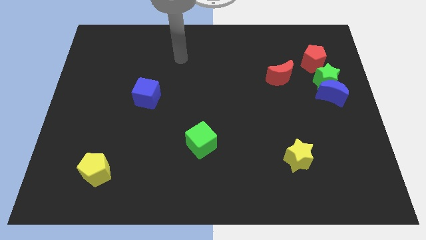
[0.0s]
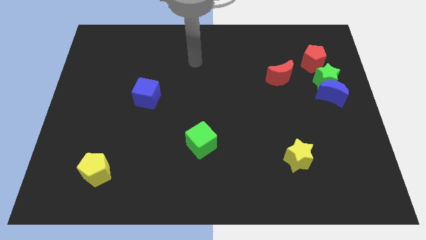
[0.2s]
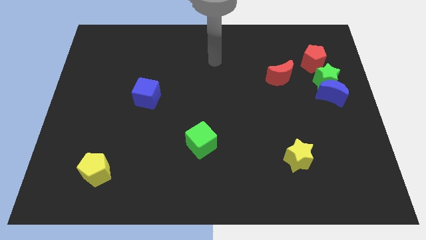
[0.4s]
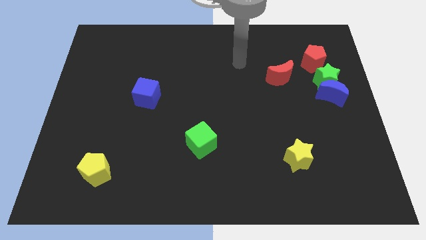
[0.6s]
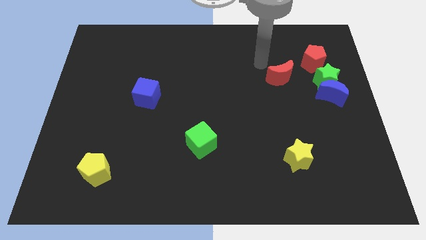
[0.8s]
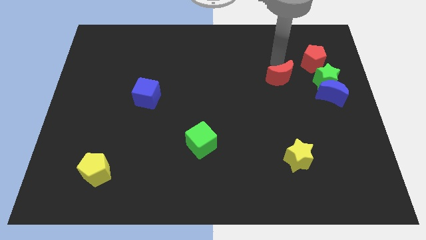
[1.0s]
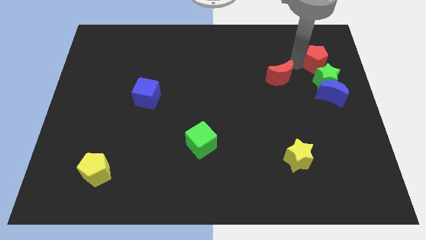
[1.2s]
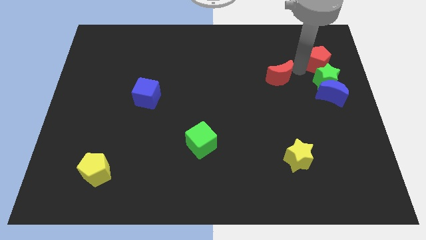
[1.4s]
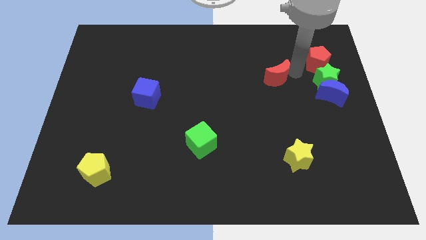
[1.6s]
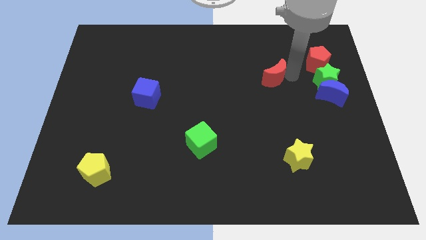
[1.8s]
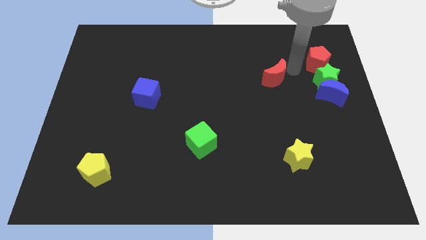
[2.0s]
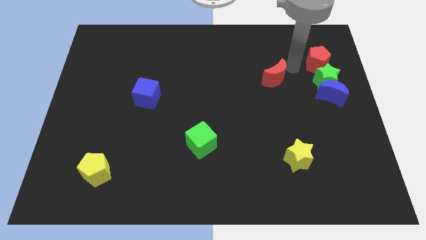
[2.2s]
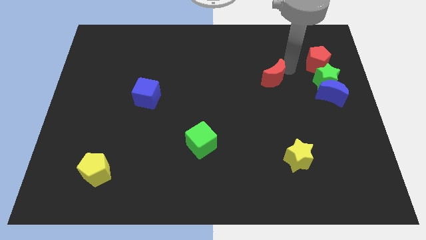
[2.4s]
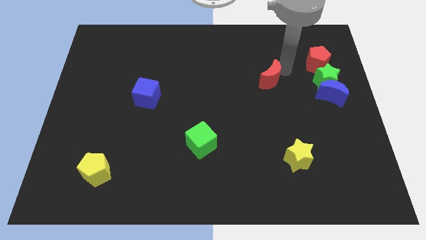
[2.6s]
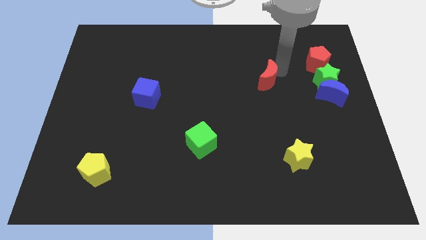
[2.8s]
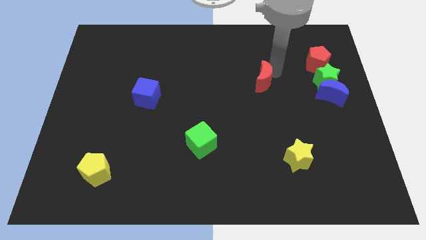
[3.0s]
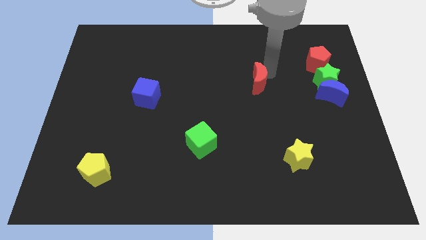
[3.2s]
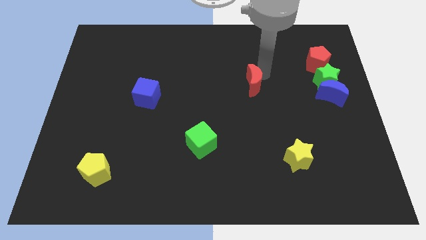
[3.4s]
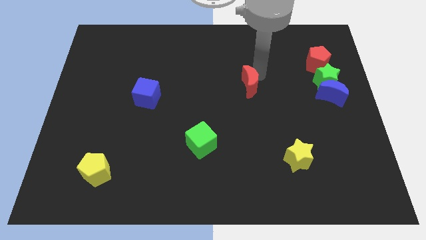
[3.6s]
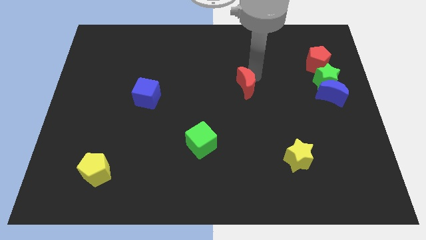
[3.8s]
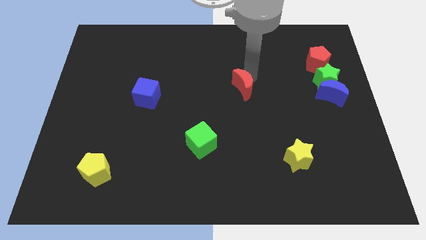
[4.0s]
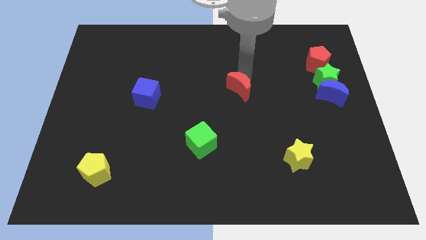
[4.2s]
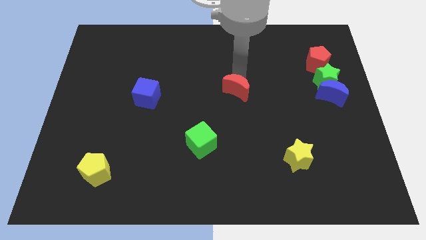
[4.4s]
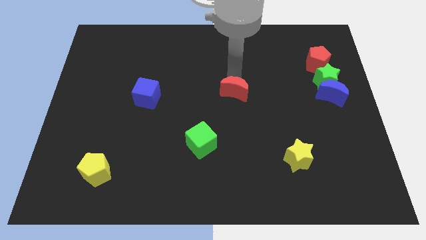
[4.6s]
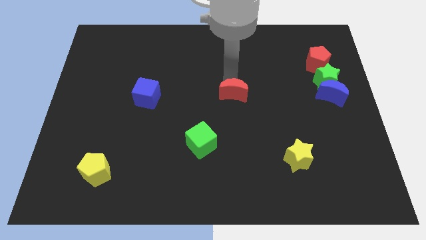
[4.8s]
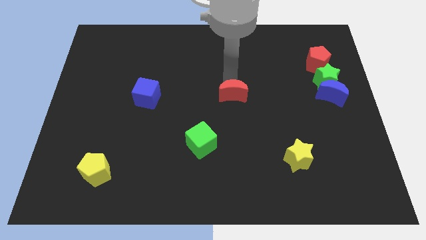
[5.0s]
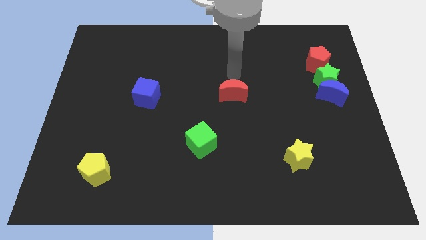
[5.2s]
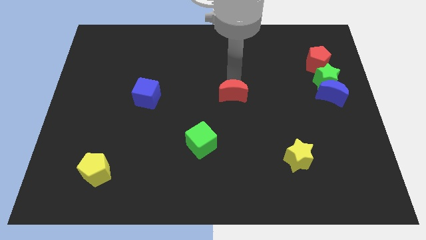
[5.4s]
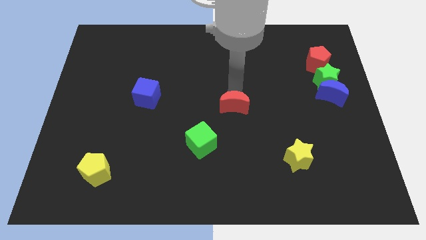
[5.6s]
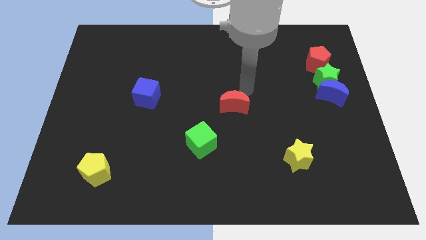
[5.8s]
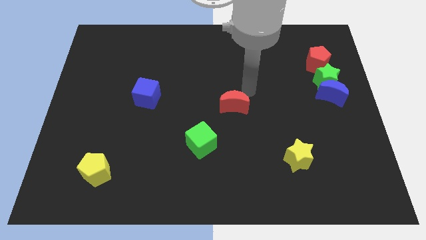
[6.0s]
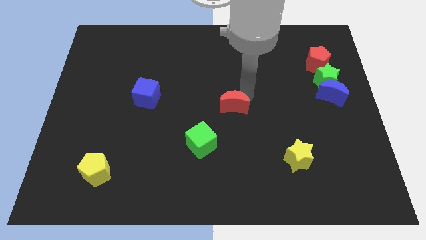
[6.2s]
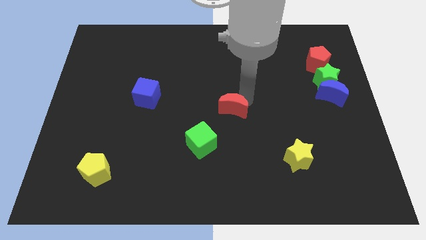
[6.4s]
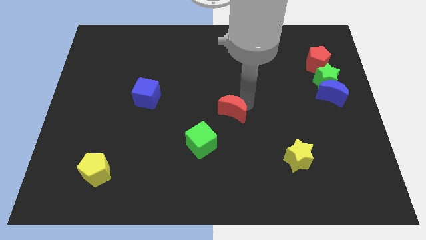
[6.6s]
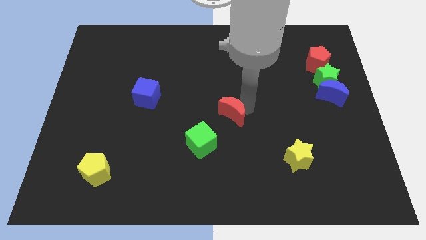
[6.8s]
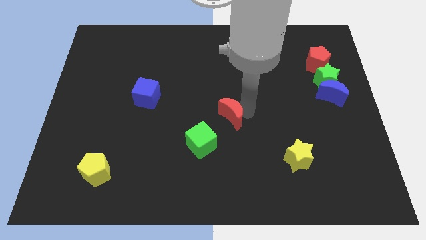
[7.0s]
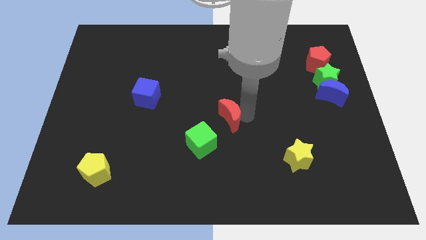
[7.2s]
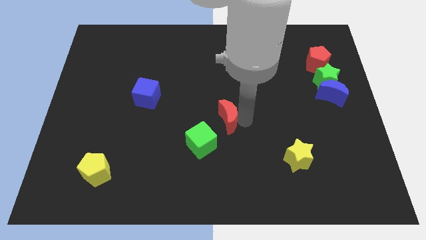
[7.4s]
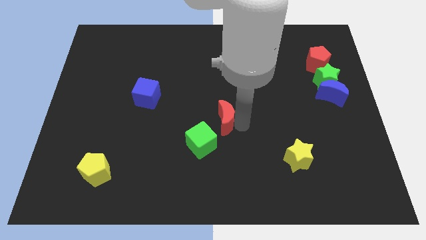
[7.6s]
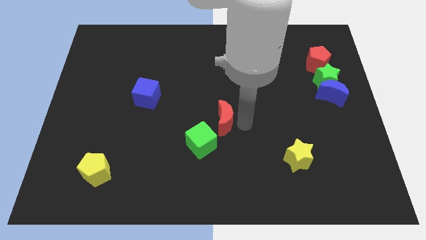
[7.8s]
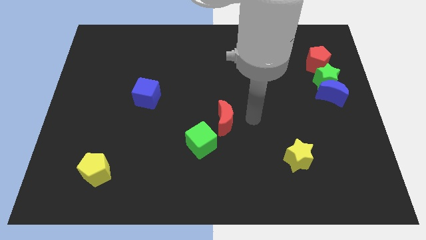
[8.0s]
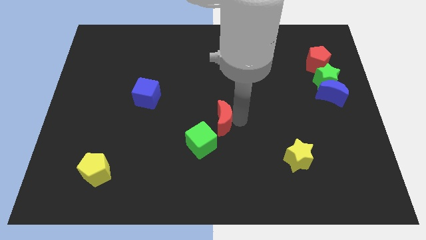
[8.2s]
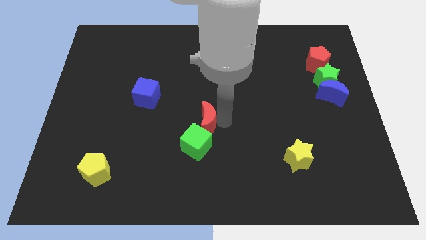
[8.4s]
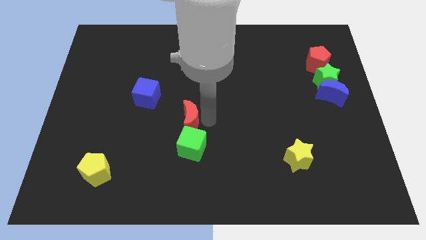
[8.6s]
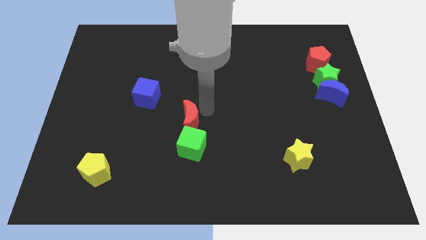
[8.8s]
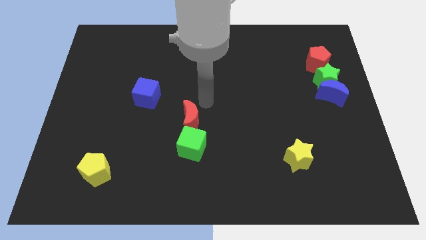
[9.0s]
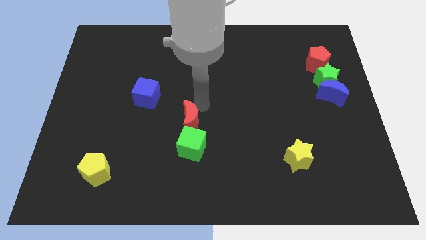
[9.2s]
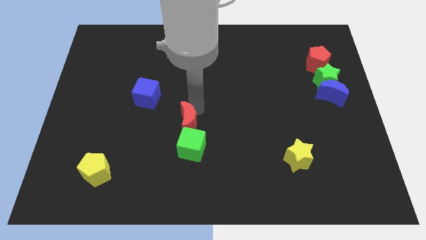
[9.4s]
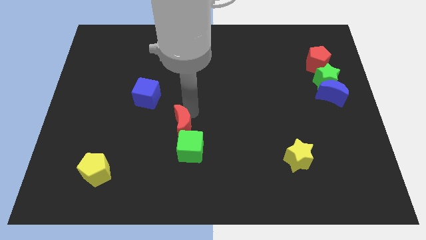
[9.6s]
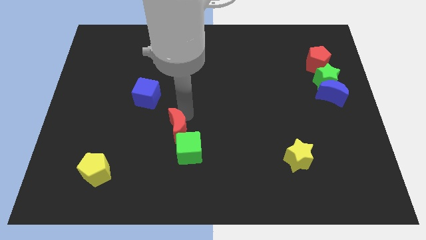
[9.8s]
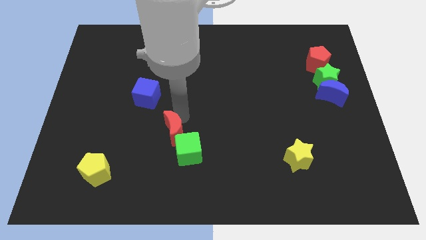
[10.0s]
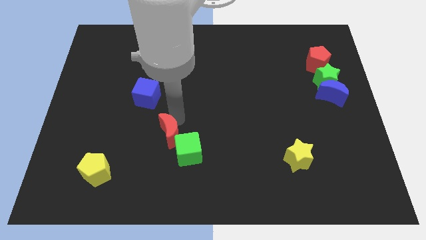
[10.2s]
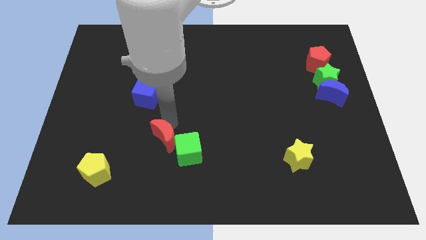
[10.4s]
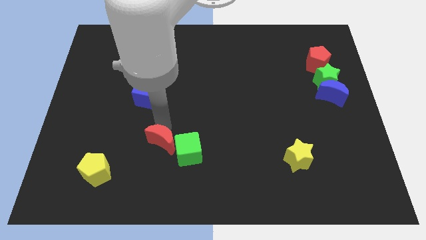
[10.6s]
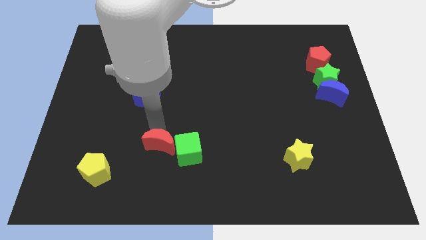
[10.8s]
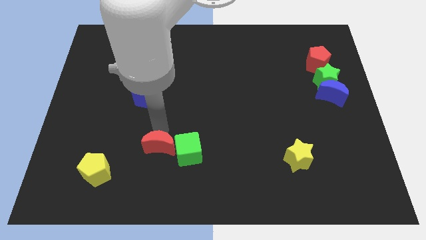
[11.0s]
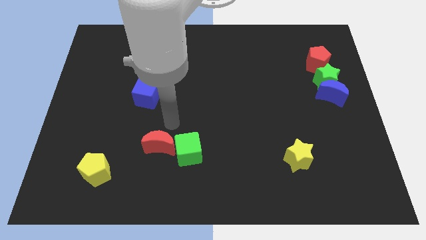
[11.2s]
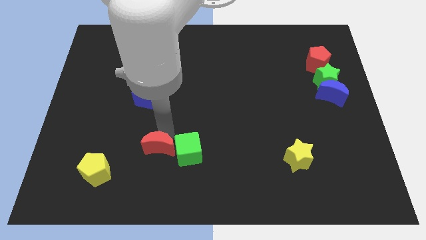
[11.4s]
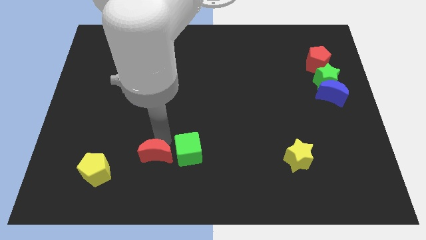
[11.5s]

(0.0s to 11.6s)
put the red moon to the right of the yellow pentagon

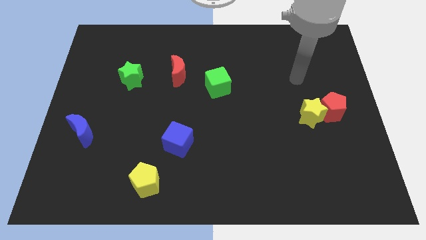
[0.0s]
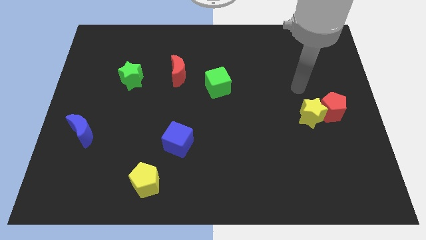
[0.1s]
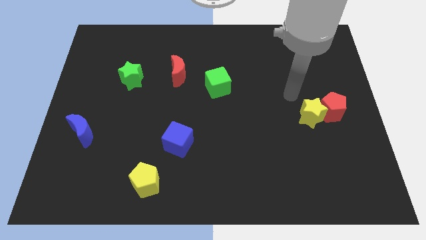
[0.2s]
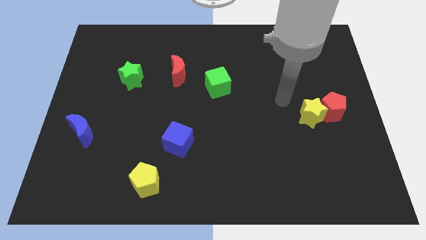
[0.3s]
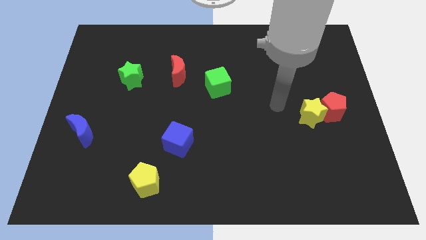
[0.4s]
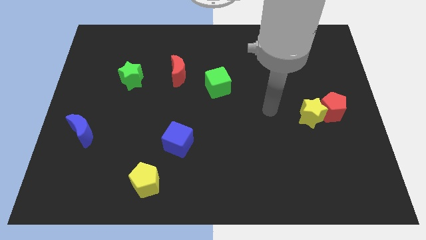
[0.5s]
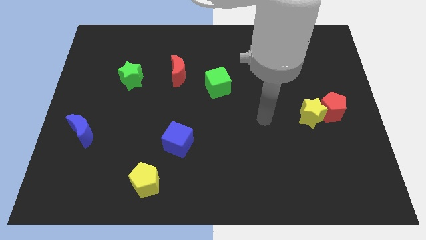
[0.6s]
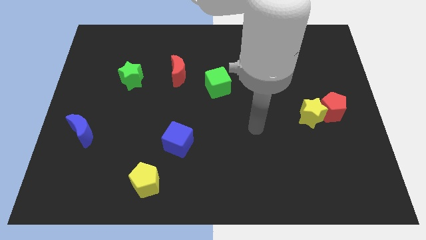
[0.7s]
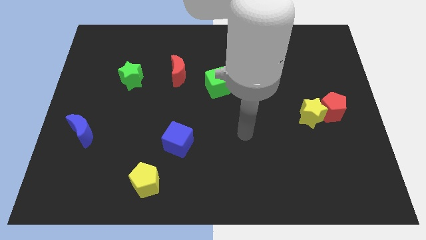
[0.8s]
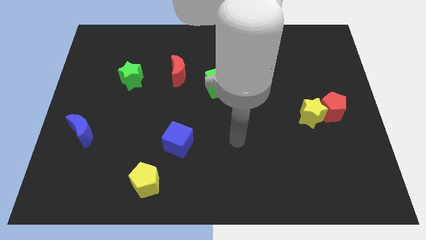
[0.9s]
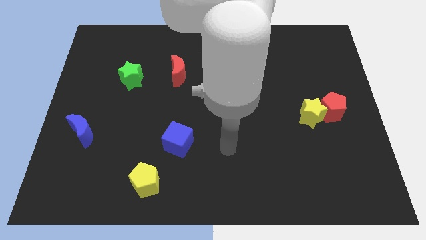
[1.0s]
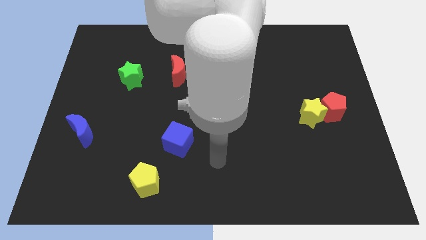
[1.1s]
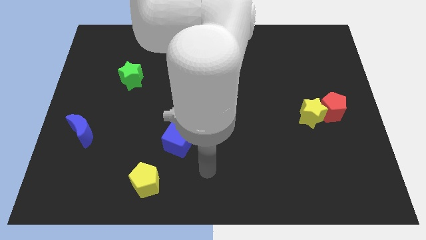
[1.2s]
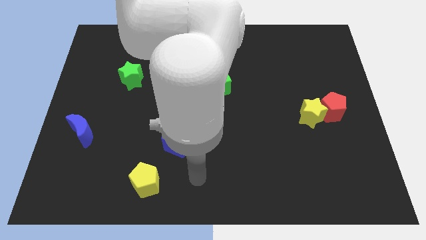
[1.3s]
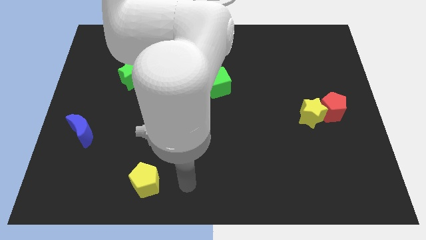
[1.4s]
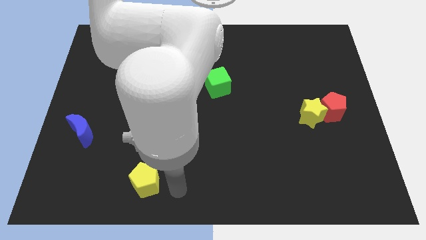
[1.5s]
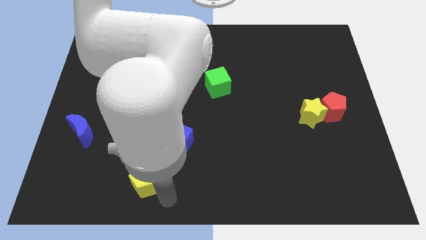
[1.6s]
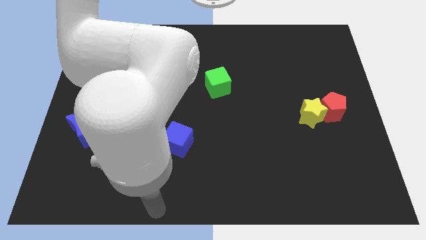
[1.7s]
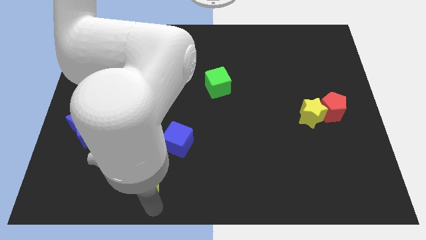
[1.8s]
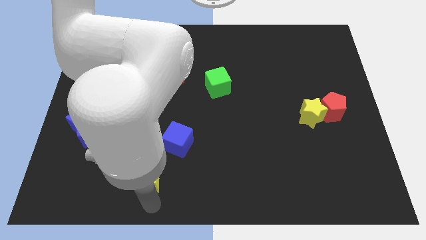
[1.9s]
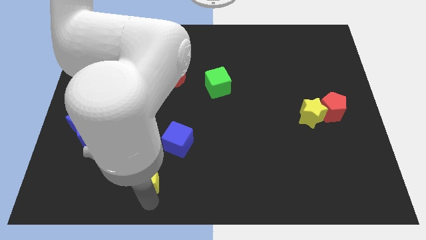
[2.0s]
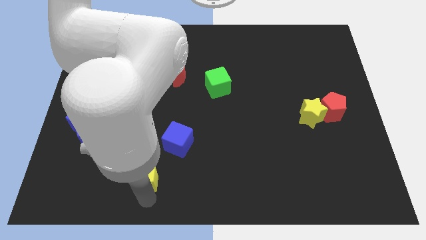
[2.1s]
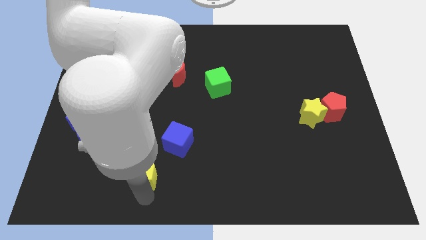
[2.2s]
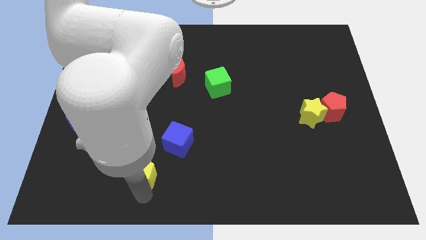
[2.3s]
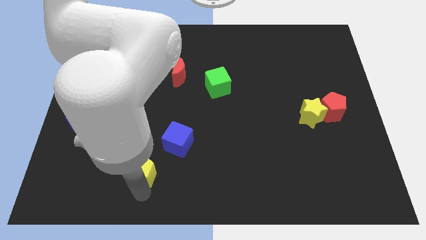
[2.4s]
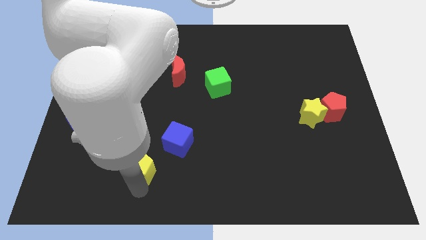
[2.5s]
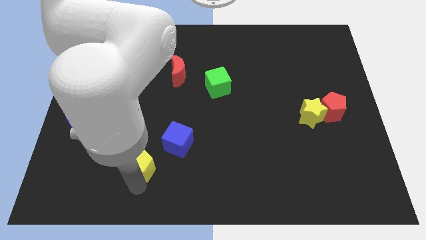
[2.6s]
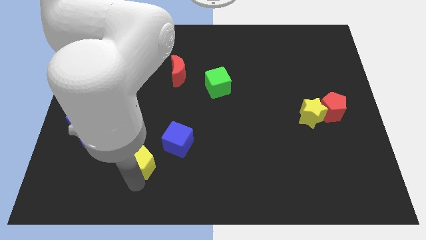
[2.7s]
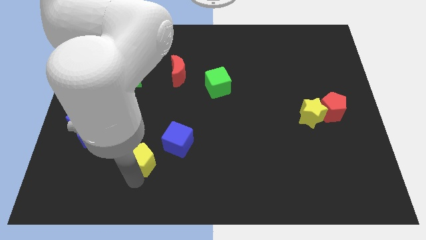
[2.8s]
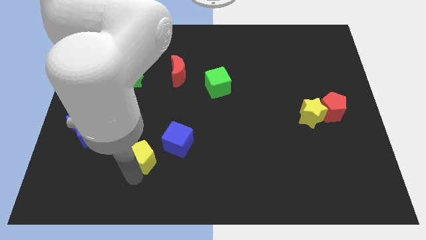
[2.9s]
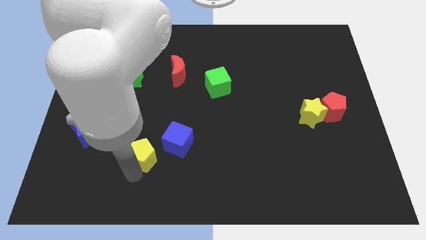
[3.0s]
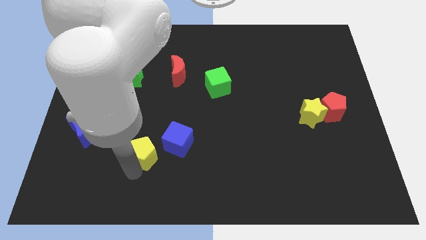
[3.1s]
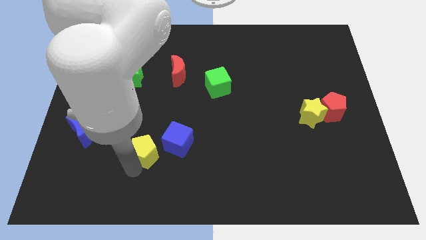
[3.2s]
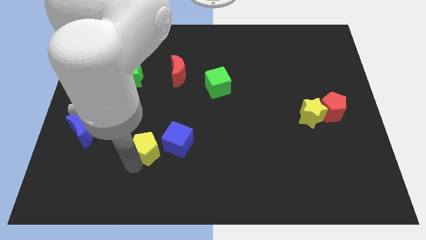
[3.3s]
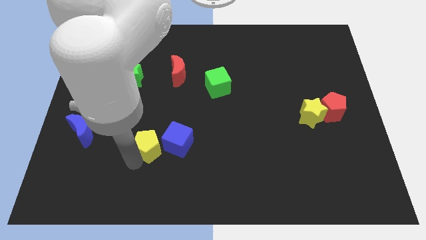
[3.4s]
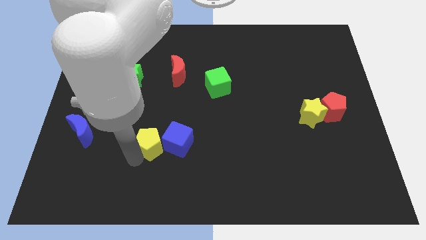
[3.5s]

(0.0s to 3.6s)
move the yellow pentagon diagonally up and to the left of the blue cube
